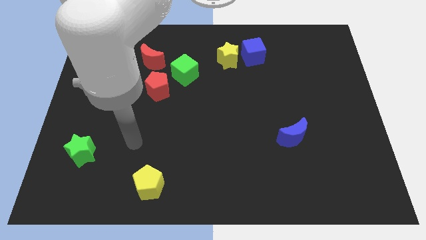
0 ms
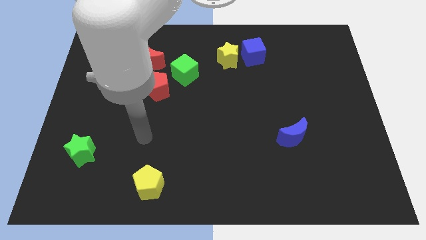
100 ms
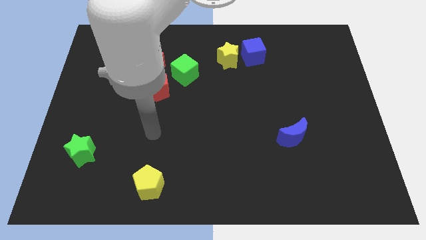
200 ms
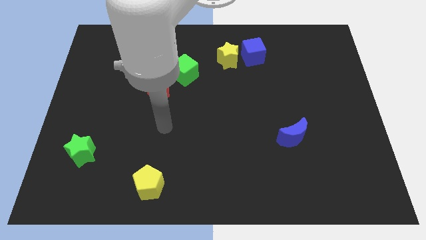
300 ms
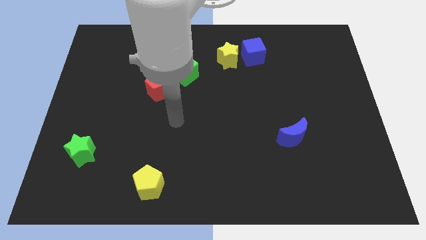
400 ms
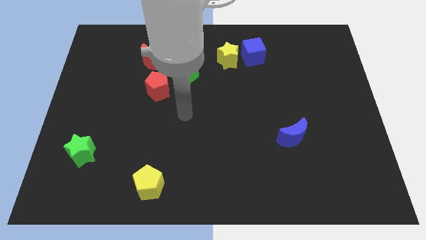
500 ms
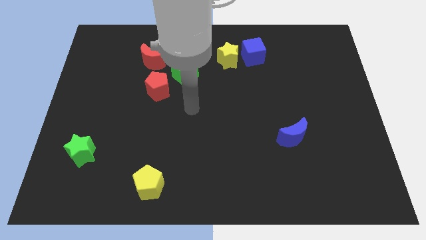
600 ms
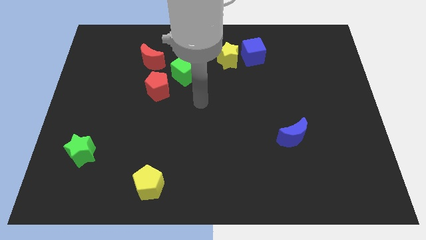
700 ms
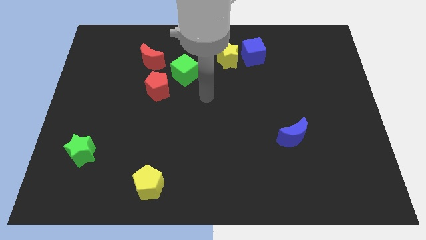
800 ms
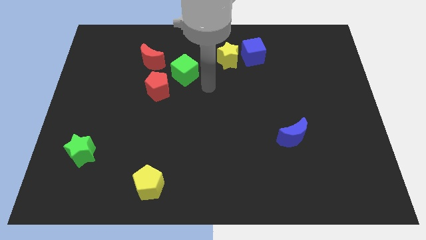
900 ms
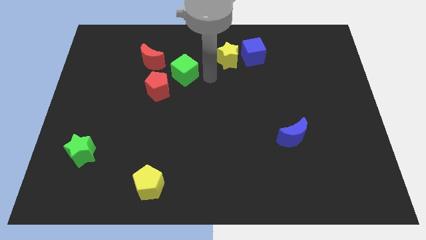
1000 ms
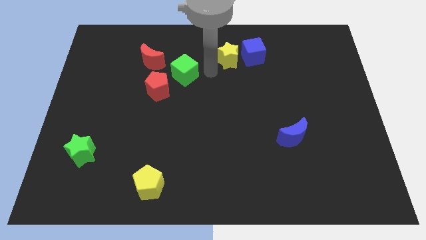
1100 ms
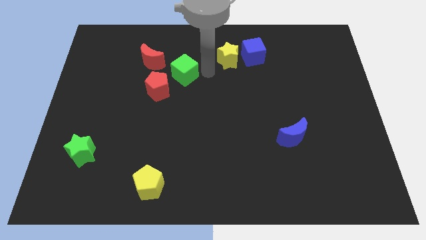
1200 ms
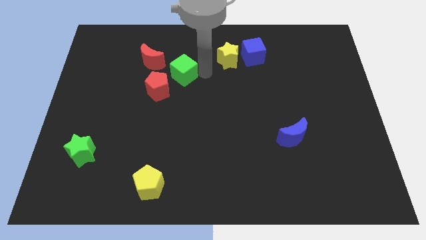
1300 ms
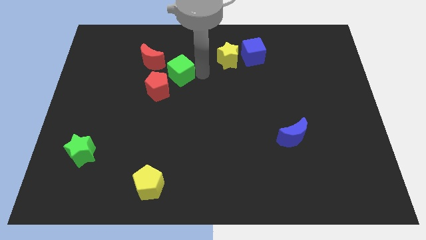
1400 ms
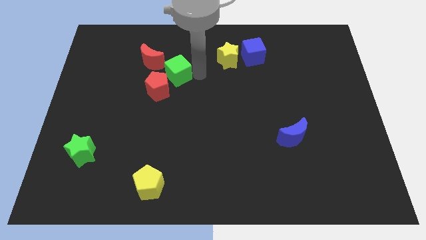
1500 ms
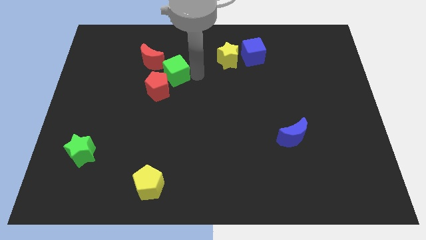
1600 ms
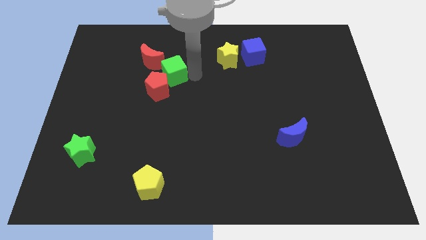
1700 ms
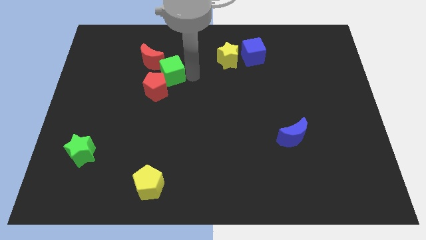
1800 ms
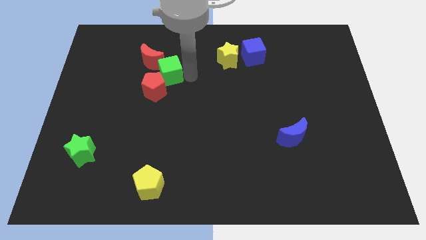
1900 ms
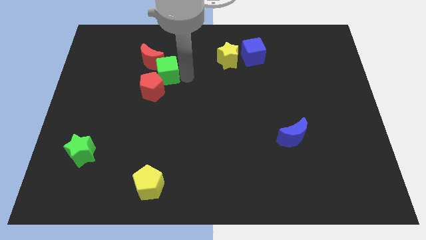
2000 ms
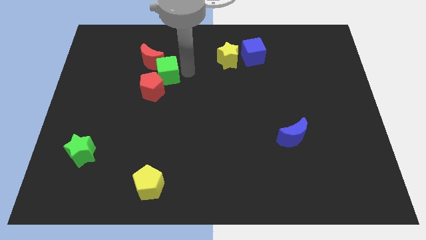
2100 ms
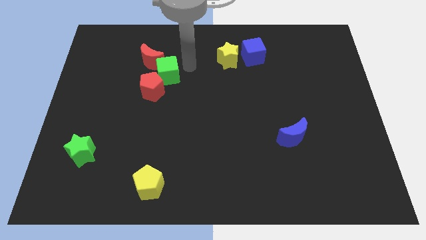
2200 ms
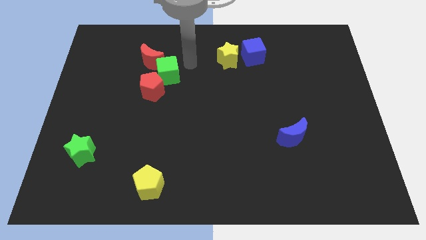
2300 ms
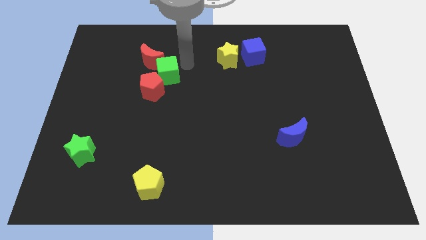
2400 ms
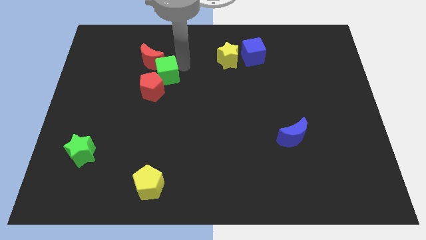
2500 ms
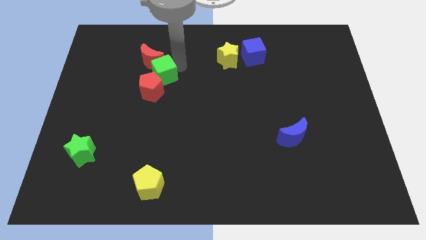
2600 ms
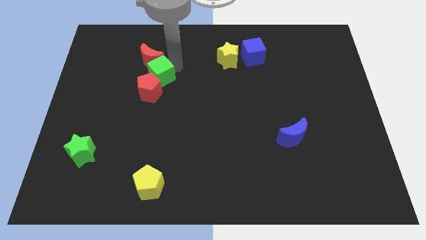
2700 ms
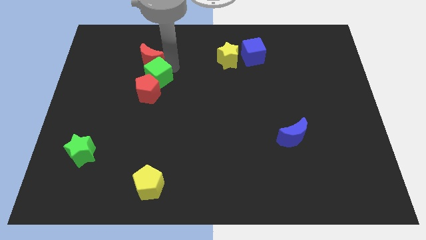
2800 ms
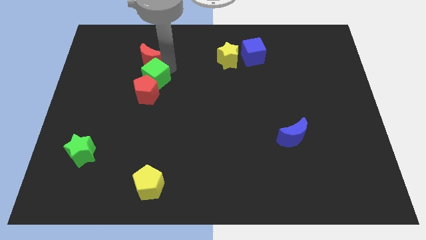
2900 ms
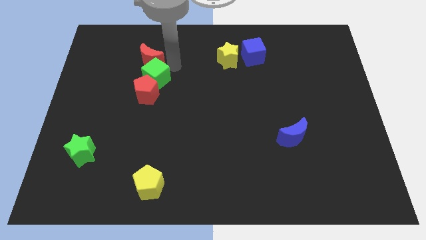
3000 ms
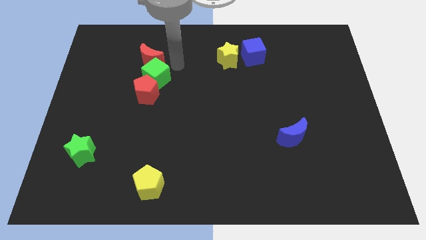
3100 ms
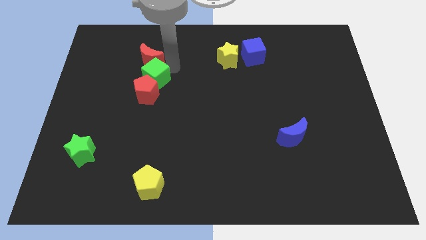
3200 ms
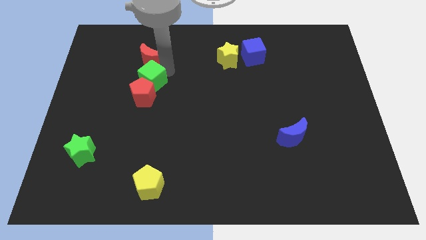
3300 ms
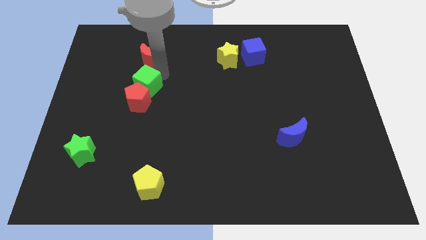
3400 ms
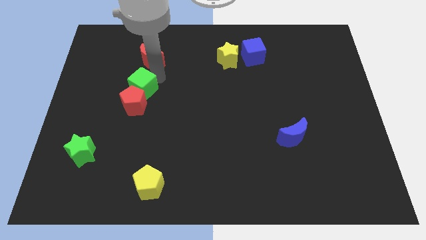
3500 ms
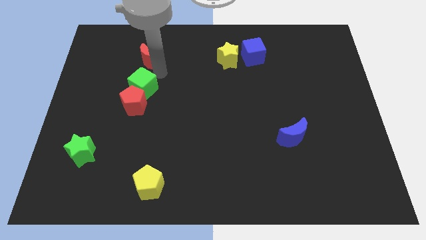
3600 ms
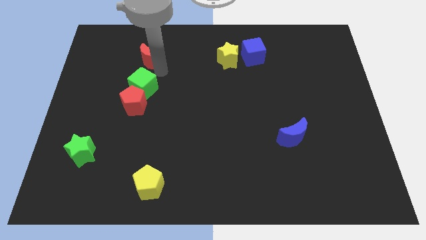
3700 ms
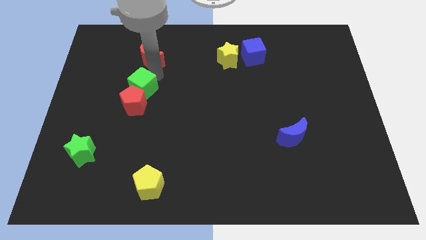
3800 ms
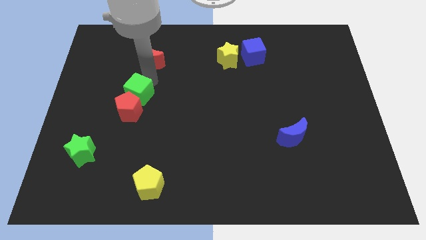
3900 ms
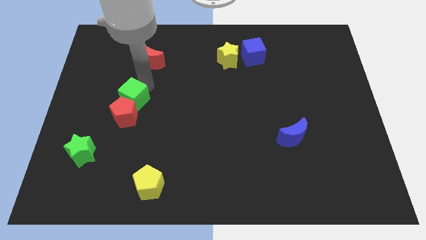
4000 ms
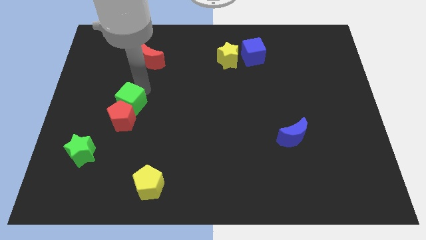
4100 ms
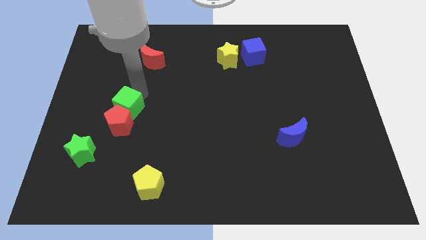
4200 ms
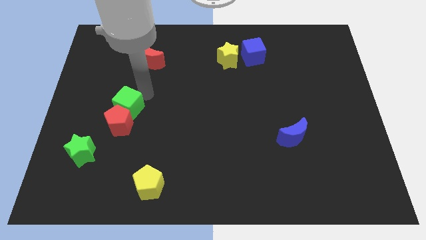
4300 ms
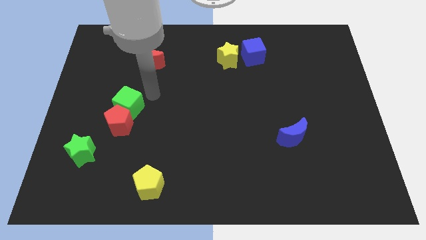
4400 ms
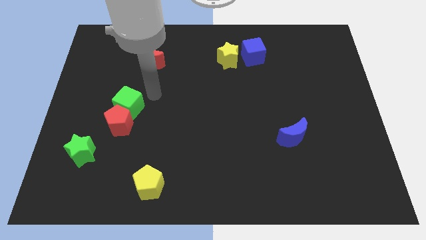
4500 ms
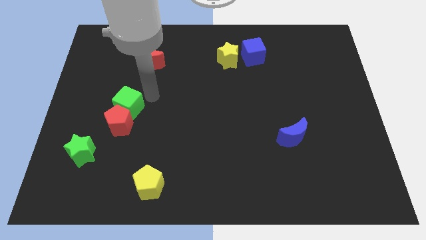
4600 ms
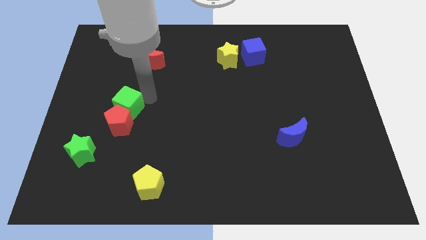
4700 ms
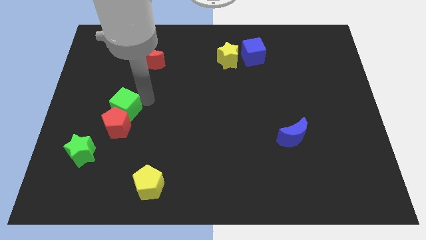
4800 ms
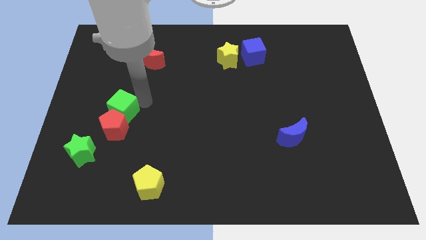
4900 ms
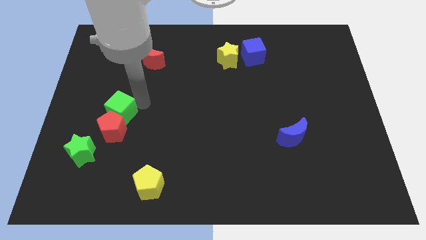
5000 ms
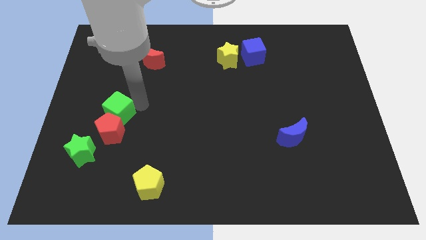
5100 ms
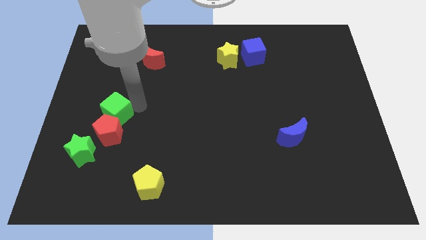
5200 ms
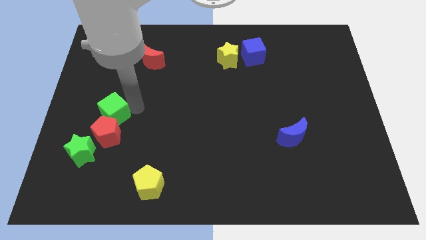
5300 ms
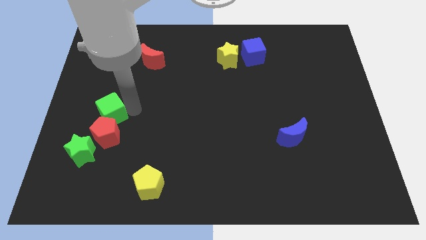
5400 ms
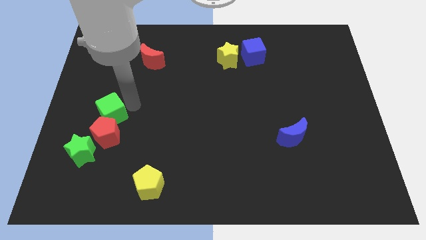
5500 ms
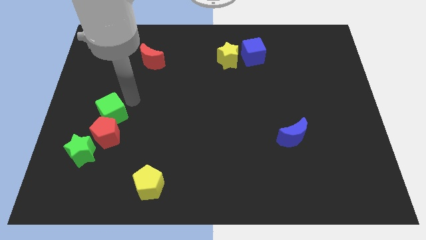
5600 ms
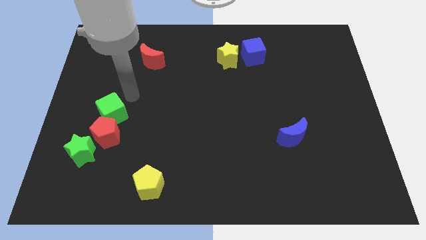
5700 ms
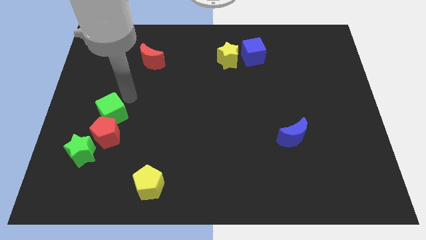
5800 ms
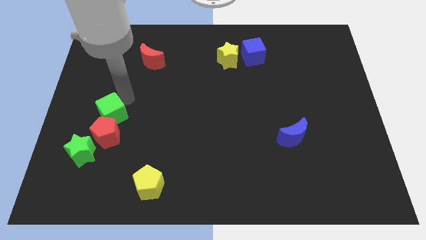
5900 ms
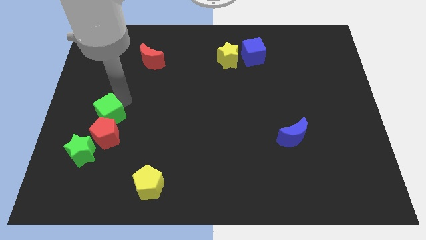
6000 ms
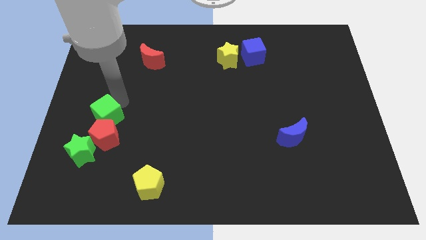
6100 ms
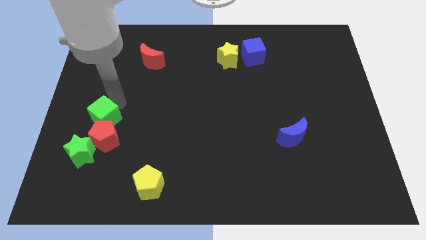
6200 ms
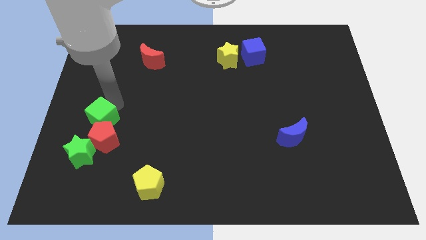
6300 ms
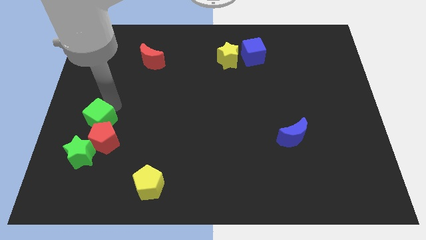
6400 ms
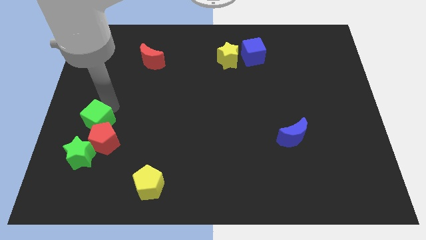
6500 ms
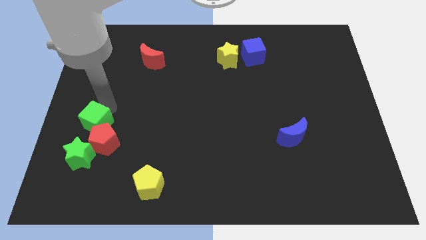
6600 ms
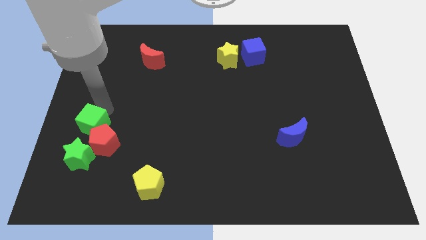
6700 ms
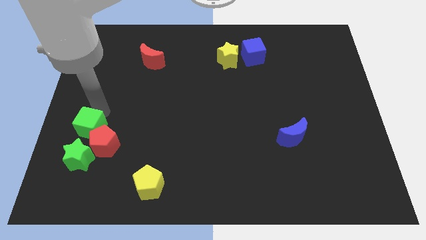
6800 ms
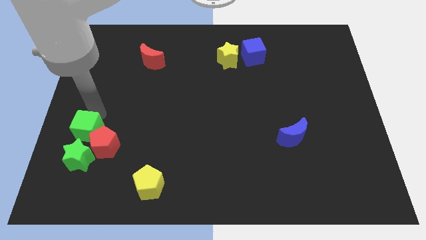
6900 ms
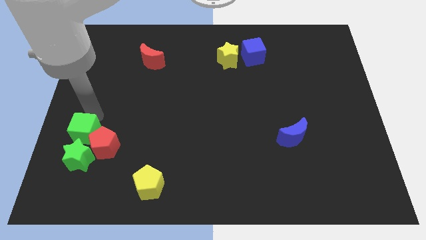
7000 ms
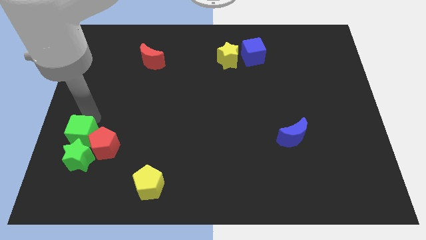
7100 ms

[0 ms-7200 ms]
slide the green cube next to the green star

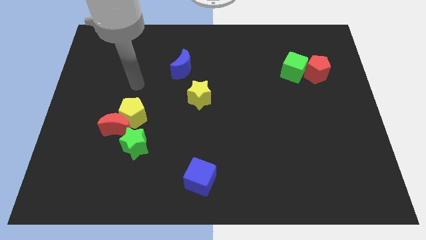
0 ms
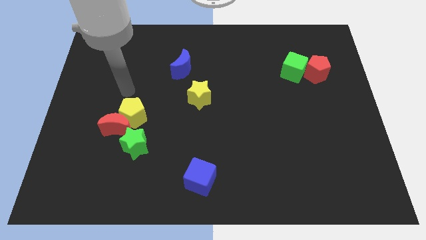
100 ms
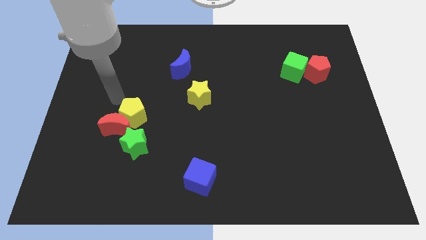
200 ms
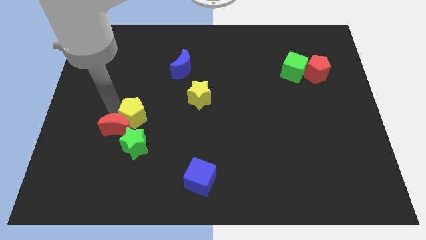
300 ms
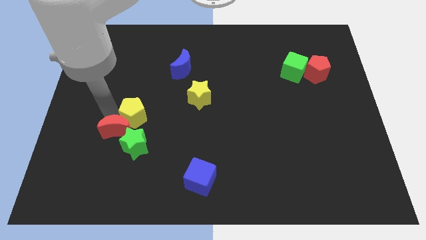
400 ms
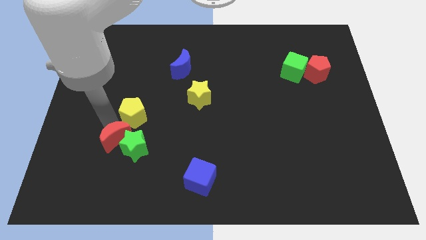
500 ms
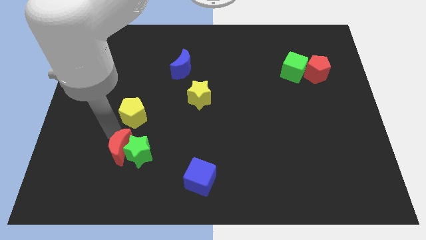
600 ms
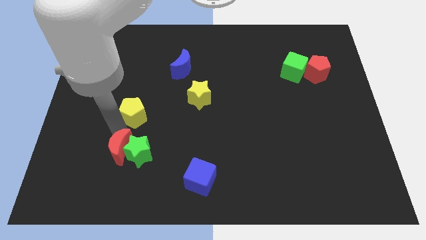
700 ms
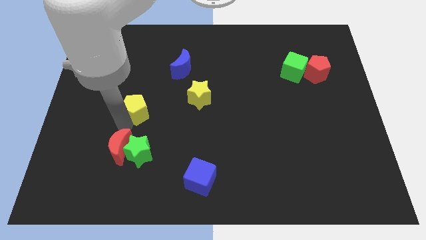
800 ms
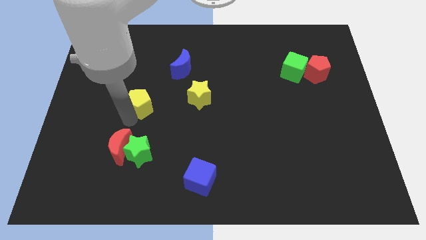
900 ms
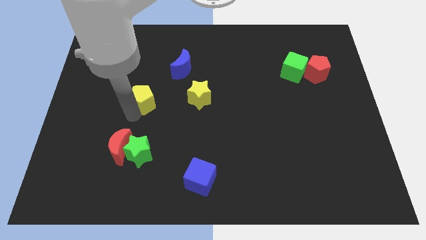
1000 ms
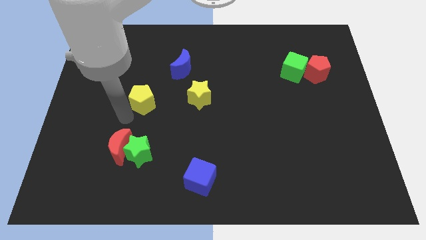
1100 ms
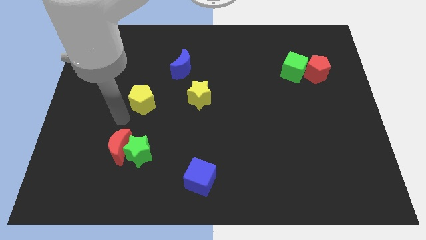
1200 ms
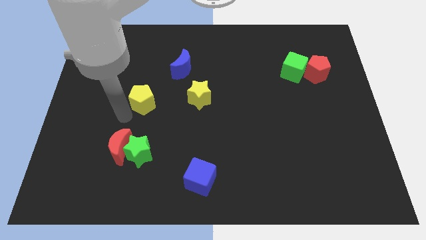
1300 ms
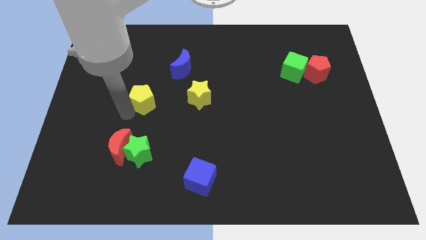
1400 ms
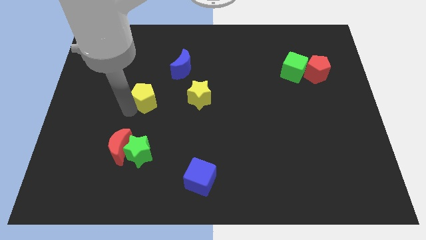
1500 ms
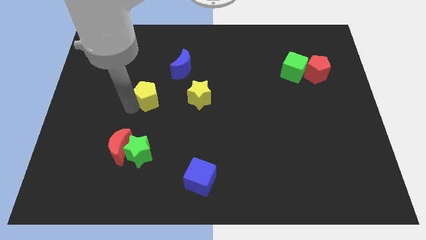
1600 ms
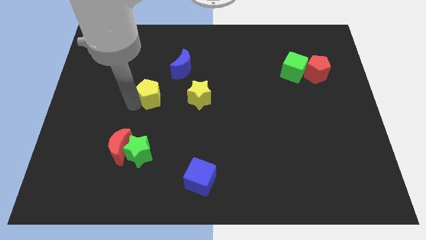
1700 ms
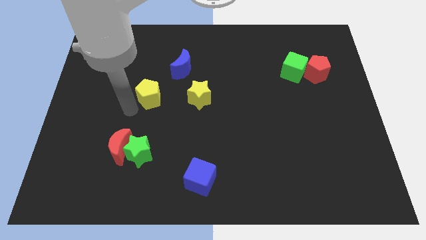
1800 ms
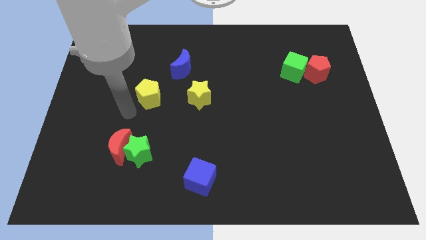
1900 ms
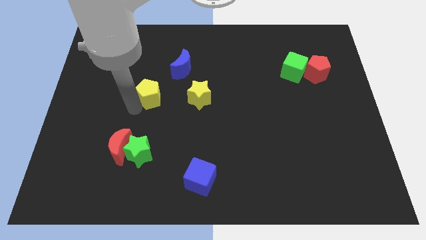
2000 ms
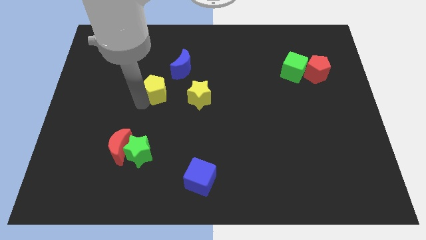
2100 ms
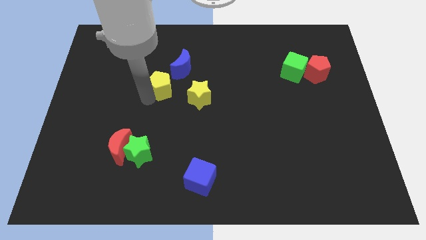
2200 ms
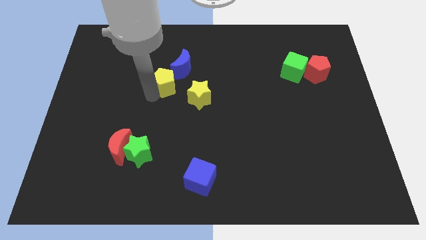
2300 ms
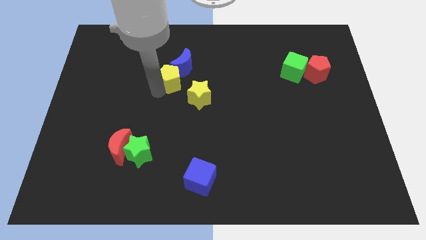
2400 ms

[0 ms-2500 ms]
slide the yellow pentagon close to the blue moon
